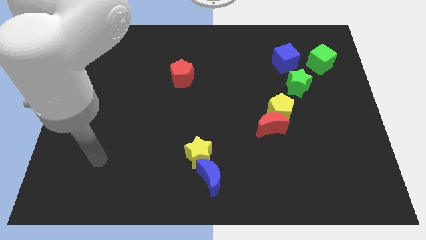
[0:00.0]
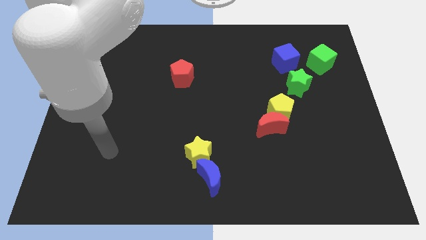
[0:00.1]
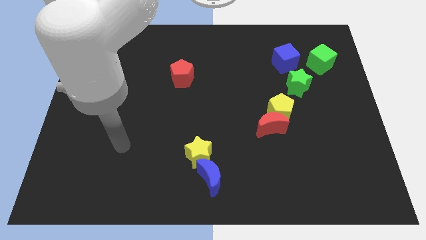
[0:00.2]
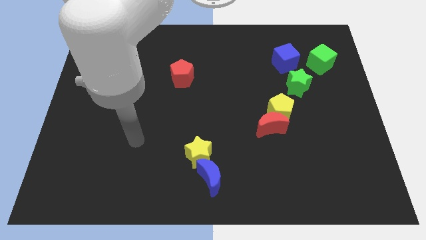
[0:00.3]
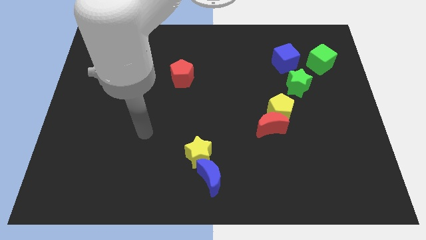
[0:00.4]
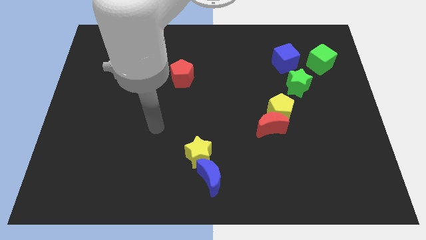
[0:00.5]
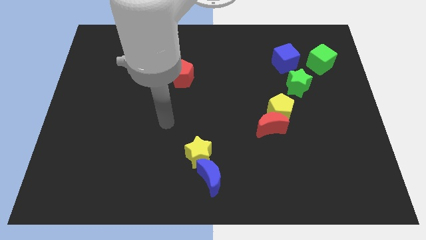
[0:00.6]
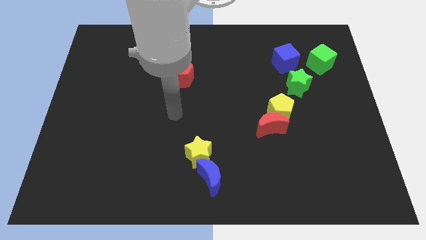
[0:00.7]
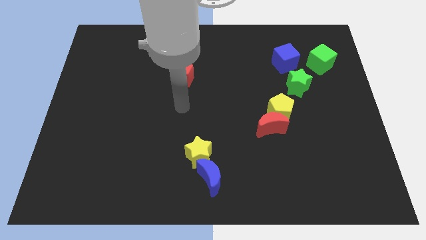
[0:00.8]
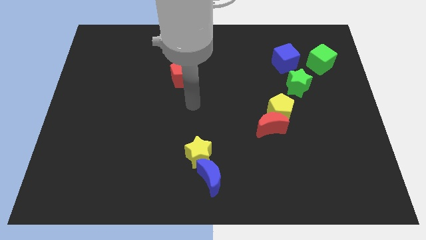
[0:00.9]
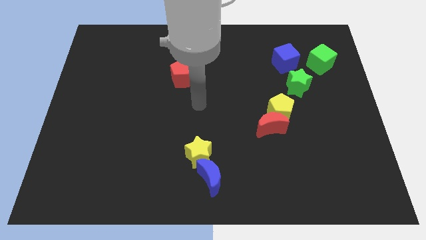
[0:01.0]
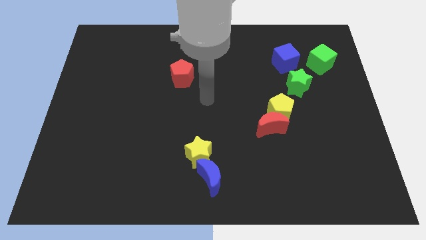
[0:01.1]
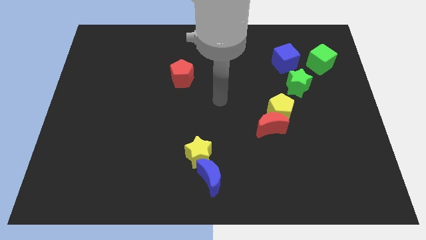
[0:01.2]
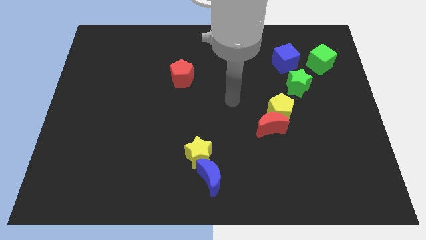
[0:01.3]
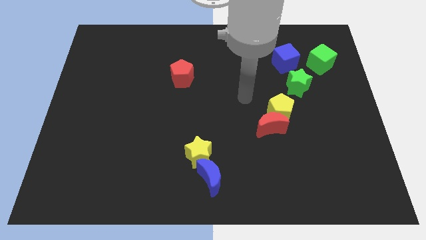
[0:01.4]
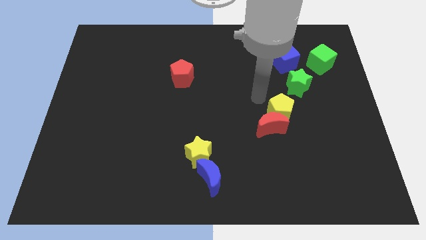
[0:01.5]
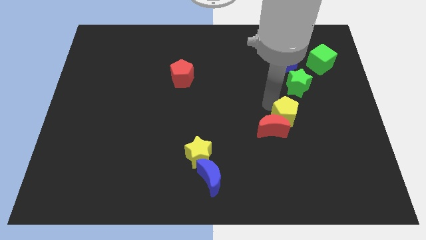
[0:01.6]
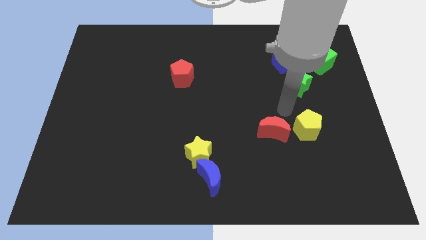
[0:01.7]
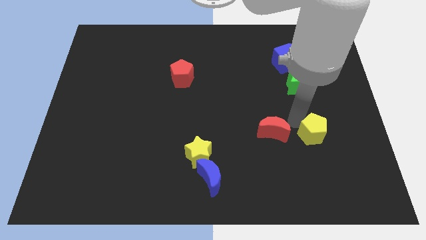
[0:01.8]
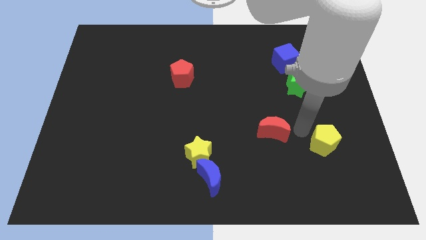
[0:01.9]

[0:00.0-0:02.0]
pull the red moon apart from the yellow pentagon

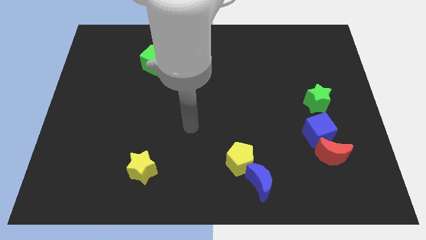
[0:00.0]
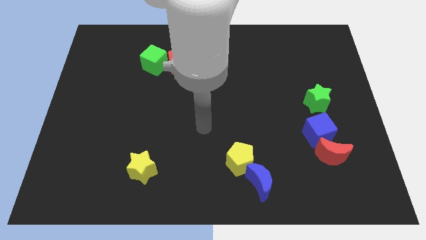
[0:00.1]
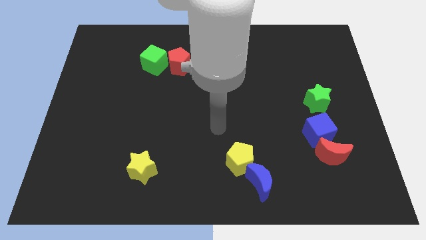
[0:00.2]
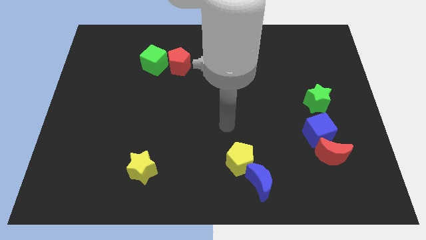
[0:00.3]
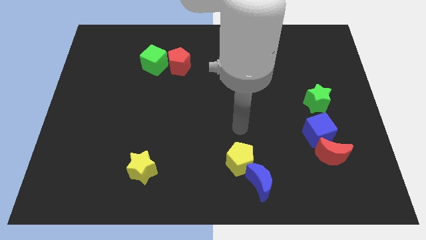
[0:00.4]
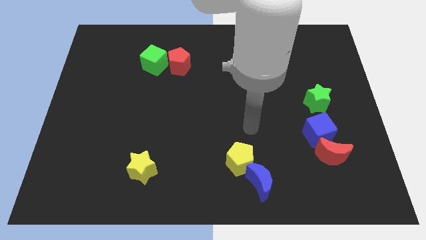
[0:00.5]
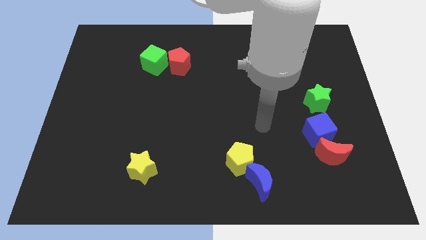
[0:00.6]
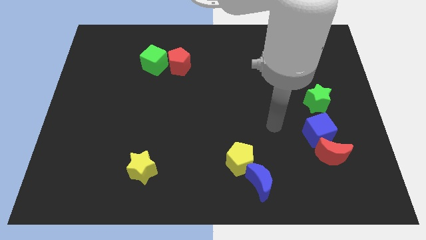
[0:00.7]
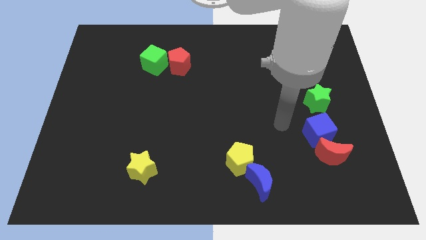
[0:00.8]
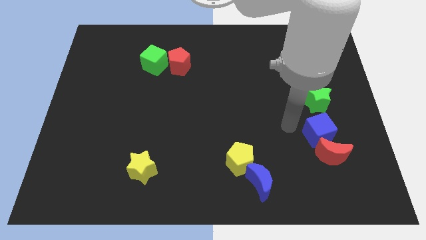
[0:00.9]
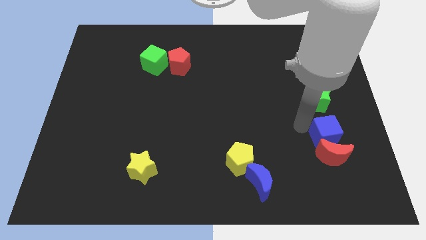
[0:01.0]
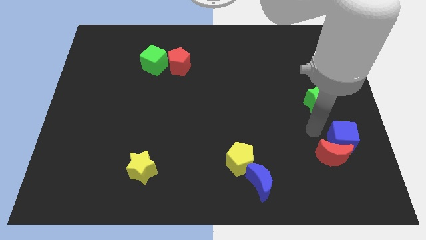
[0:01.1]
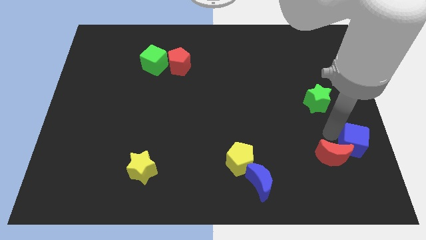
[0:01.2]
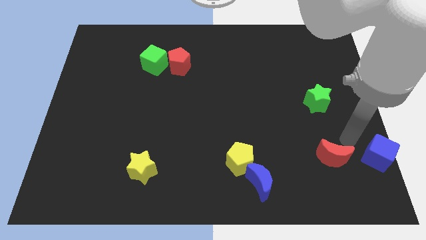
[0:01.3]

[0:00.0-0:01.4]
move the red moon away from the blue cube

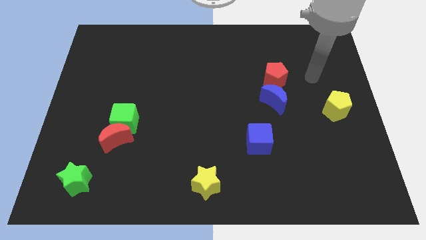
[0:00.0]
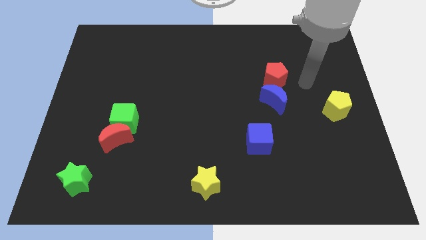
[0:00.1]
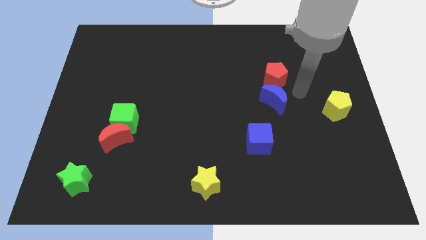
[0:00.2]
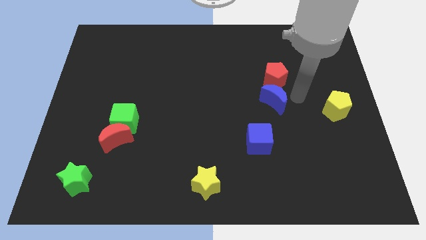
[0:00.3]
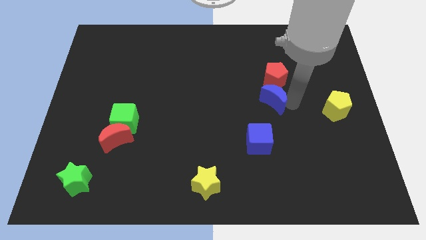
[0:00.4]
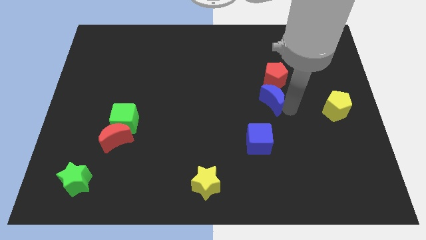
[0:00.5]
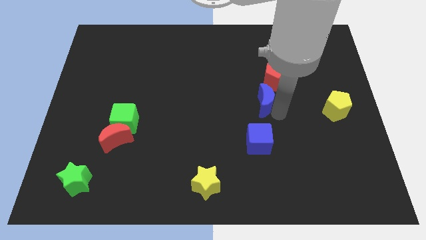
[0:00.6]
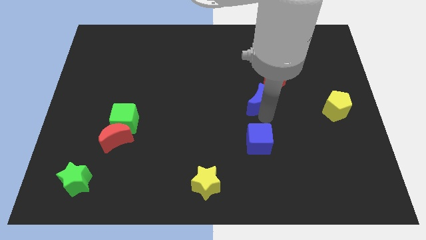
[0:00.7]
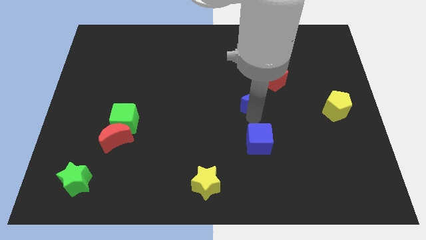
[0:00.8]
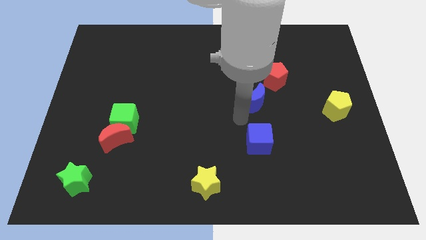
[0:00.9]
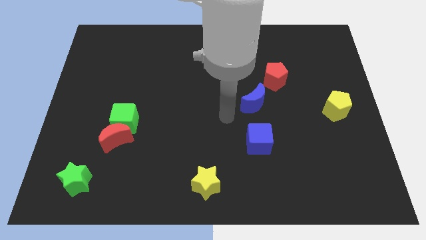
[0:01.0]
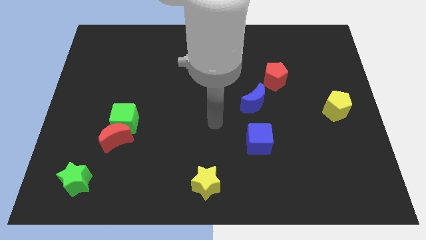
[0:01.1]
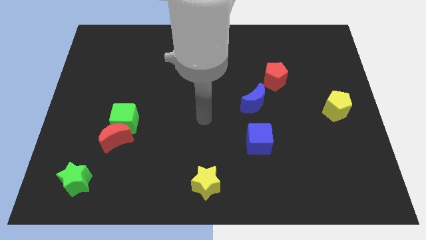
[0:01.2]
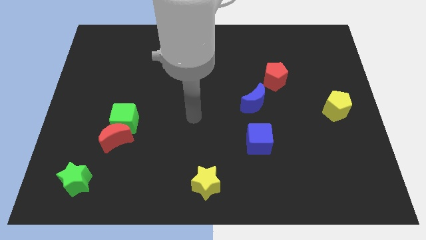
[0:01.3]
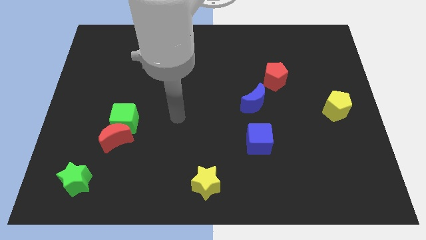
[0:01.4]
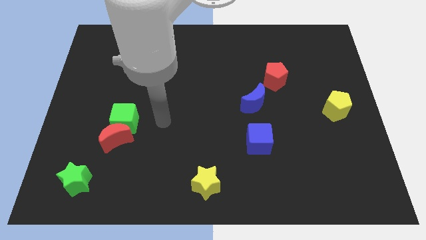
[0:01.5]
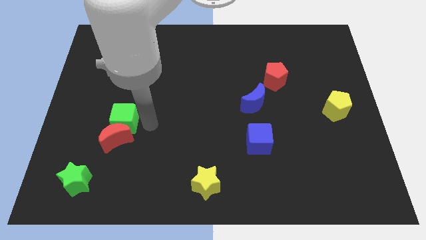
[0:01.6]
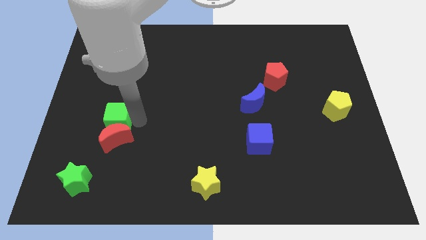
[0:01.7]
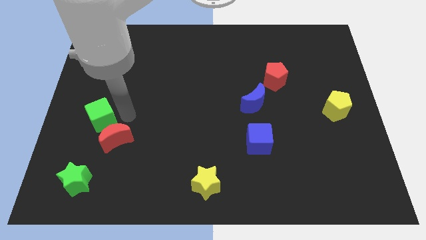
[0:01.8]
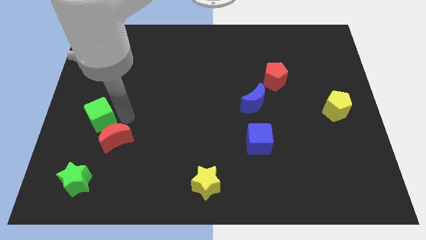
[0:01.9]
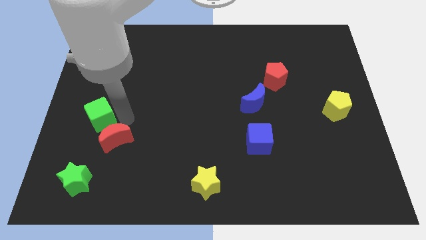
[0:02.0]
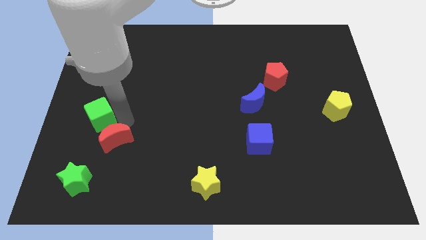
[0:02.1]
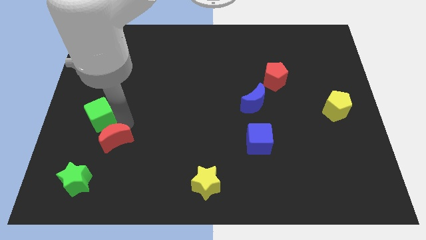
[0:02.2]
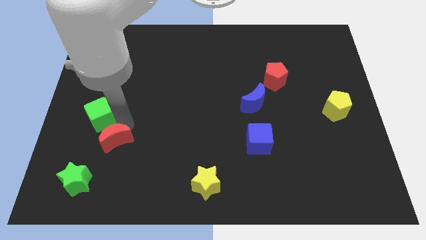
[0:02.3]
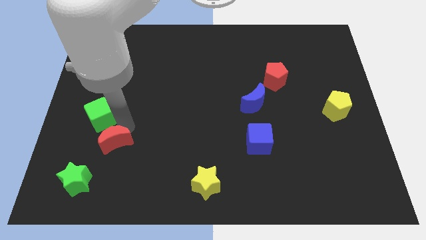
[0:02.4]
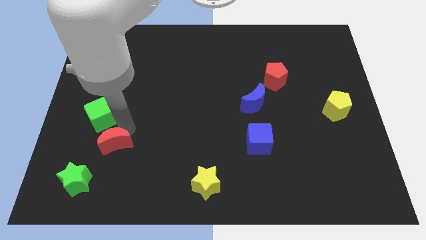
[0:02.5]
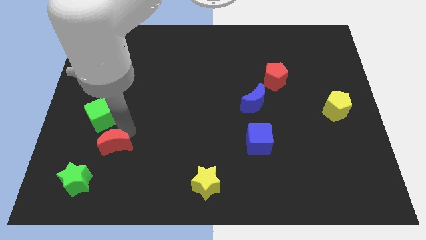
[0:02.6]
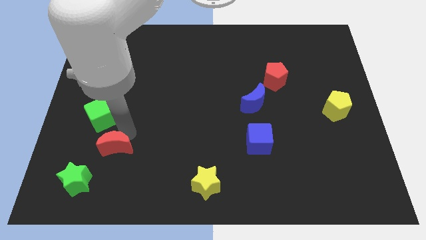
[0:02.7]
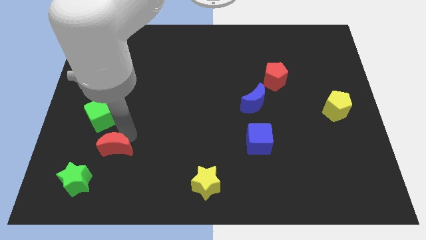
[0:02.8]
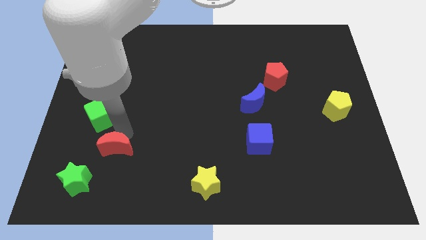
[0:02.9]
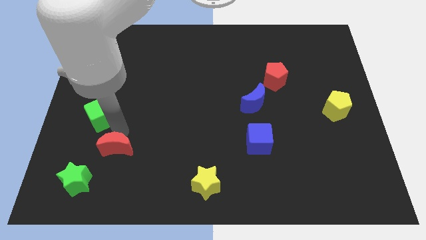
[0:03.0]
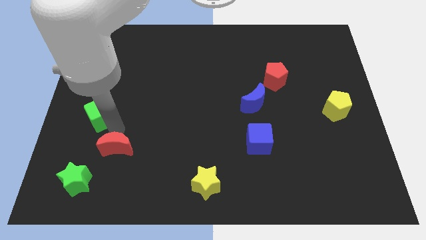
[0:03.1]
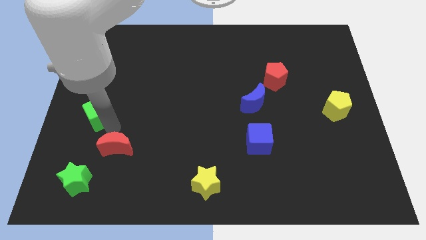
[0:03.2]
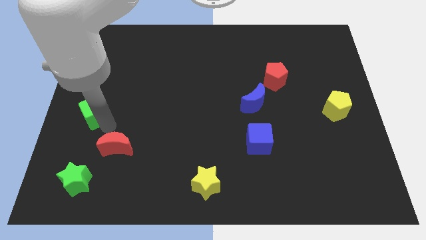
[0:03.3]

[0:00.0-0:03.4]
separate the red moon from the green cube

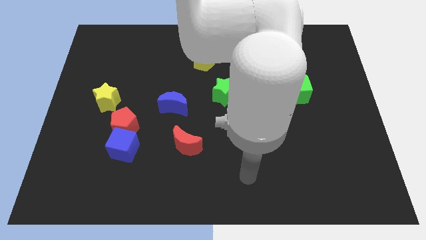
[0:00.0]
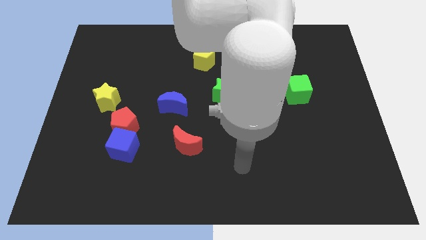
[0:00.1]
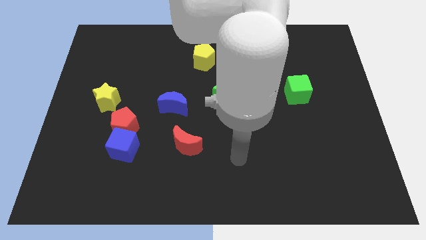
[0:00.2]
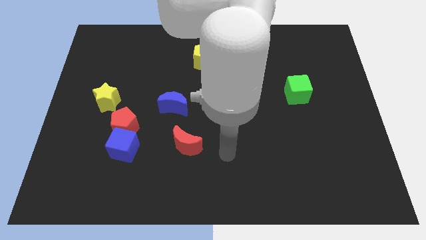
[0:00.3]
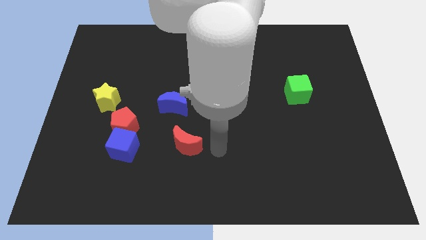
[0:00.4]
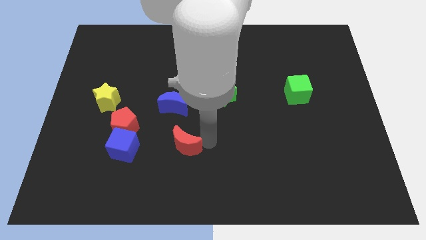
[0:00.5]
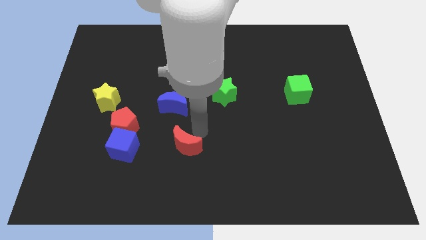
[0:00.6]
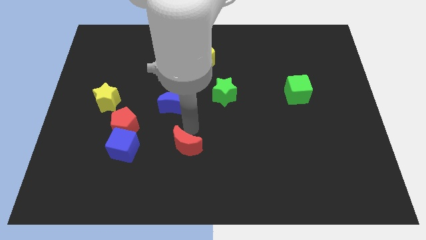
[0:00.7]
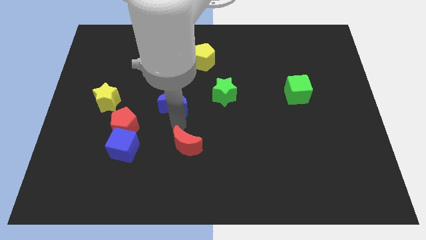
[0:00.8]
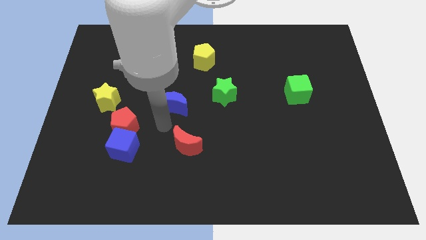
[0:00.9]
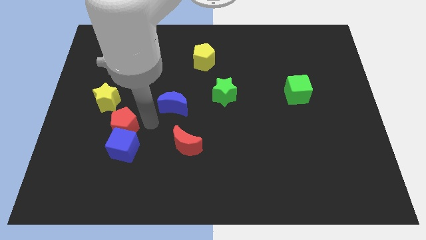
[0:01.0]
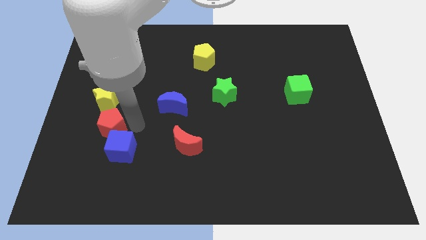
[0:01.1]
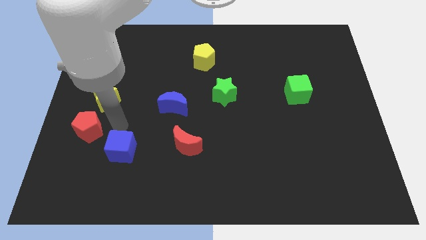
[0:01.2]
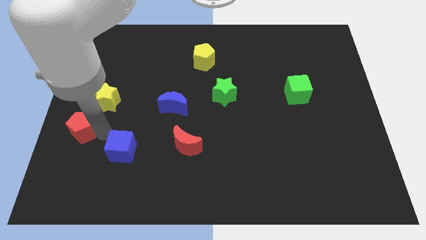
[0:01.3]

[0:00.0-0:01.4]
pull the blue cube apart from the red pentagon

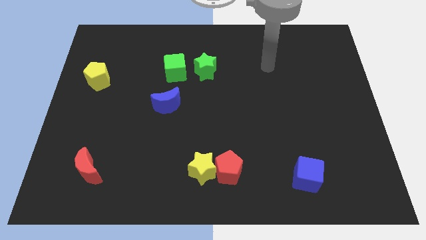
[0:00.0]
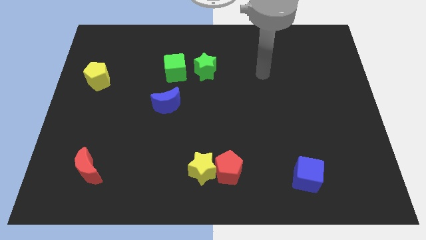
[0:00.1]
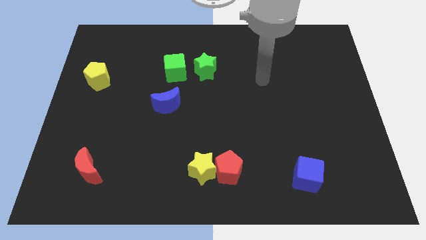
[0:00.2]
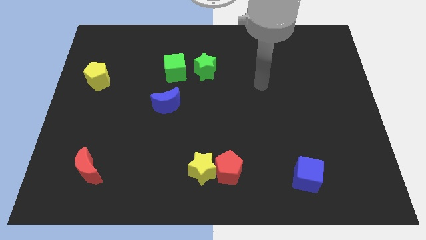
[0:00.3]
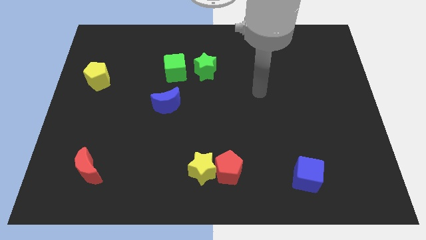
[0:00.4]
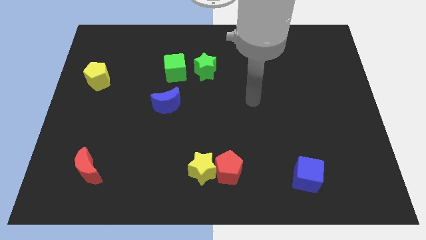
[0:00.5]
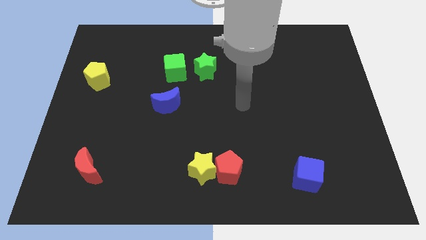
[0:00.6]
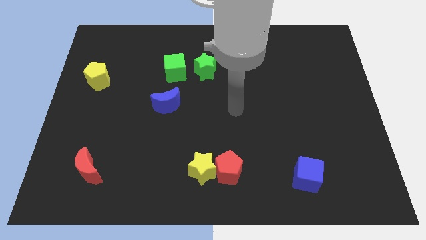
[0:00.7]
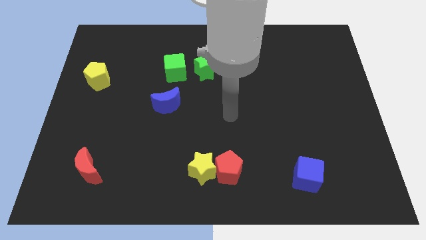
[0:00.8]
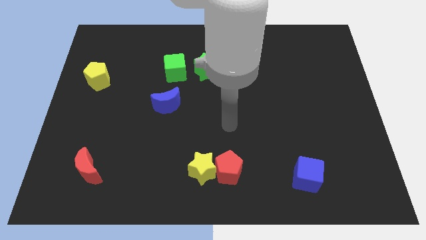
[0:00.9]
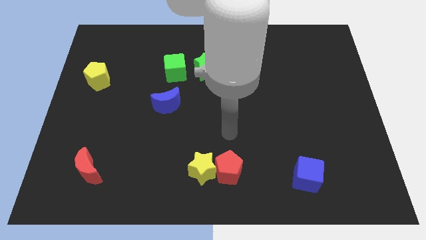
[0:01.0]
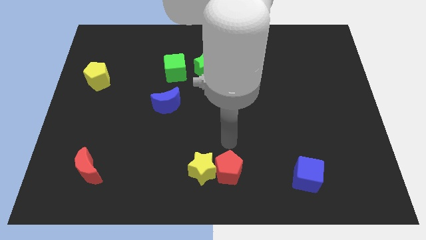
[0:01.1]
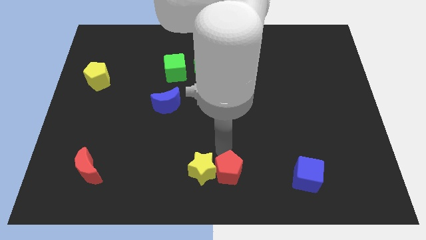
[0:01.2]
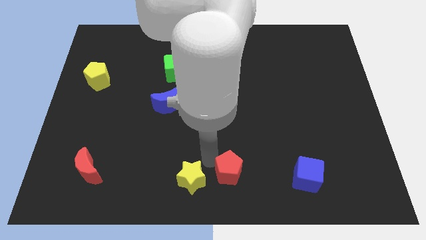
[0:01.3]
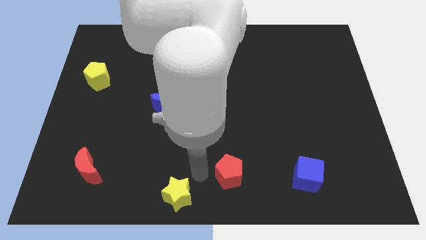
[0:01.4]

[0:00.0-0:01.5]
separate the red pentagon from the yellow star
